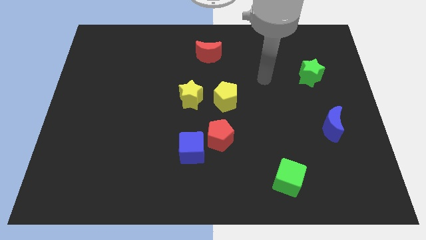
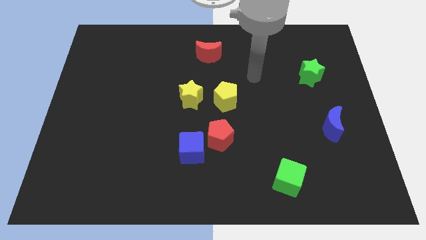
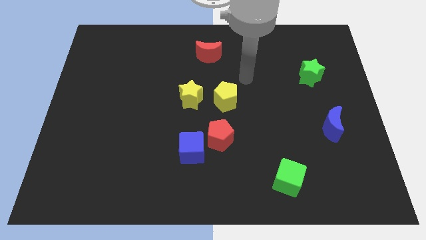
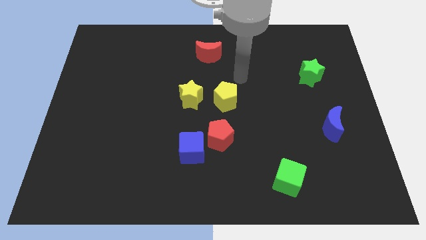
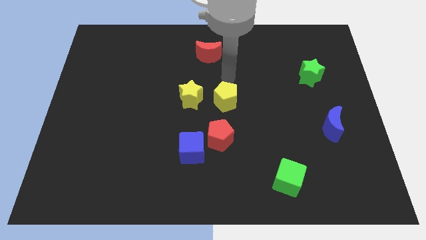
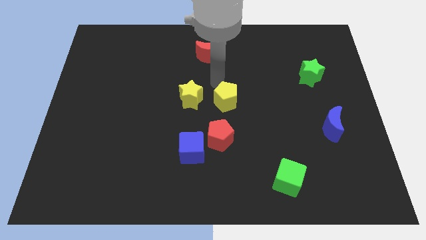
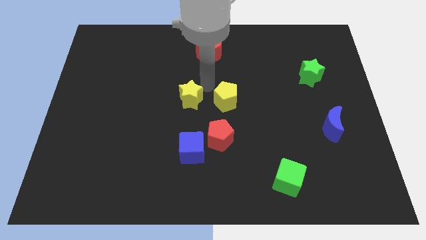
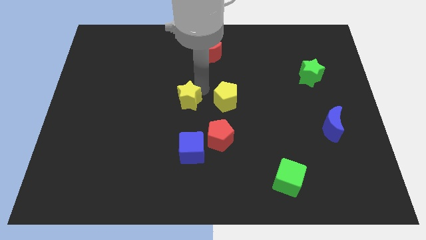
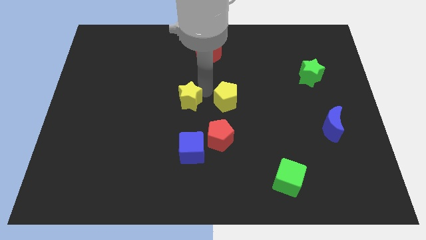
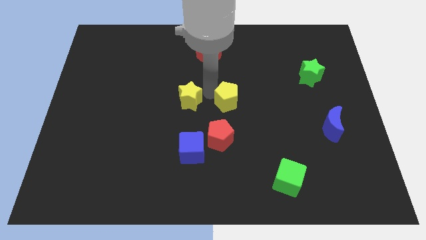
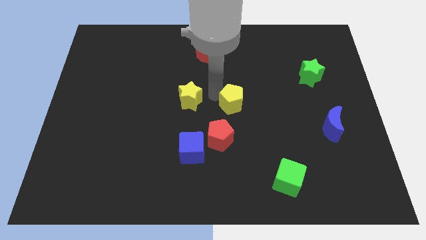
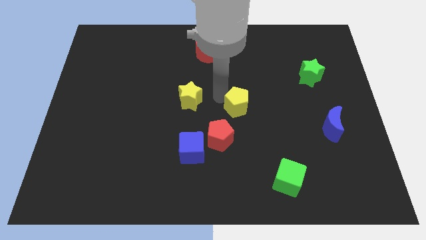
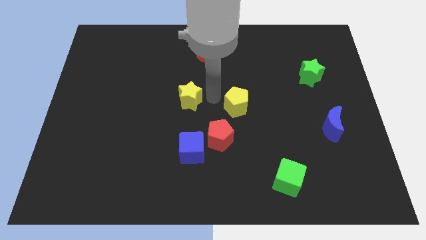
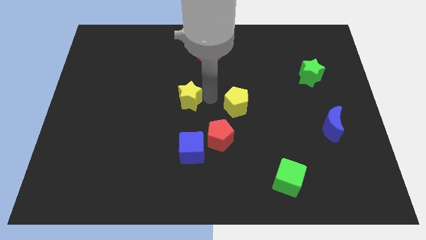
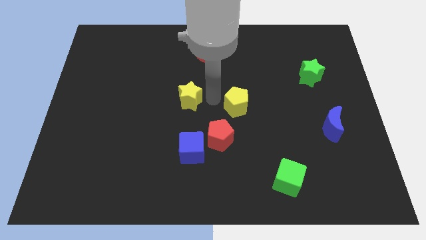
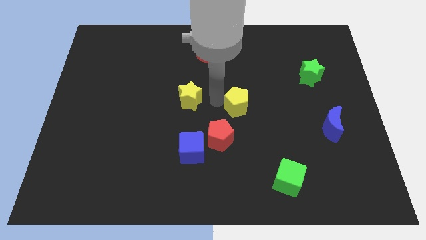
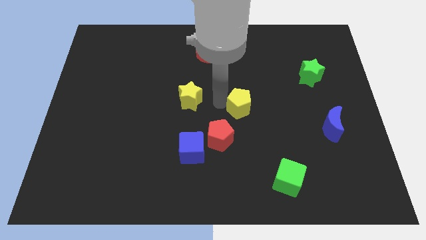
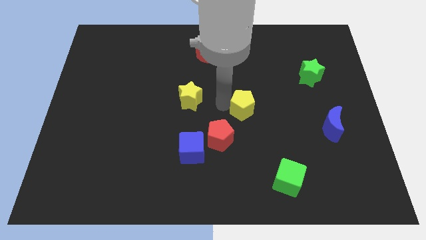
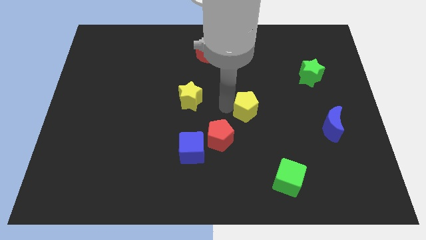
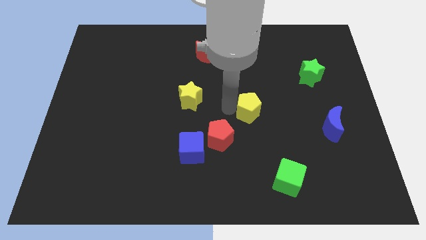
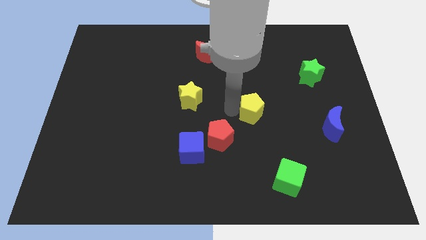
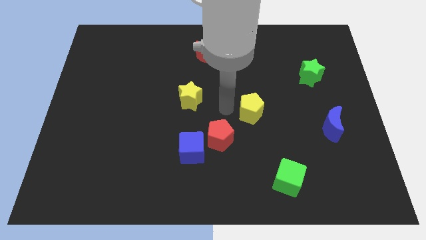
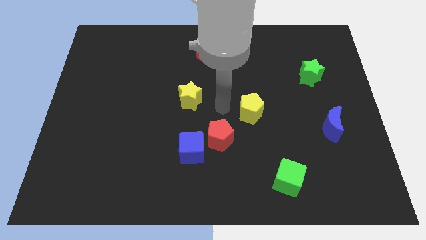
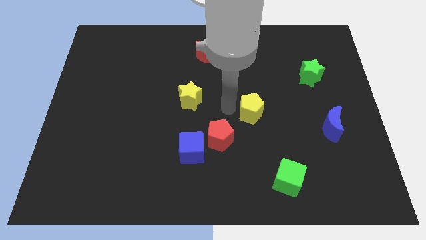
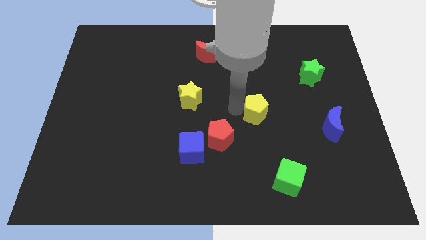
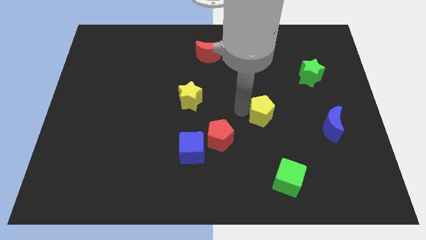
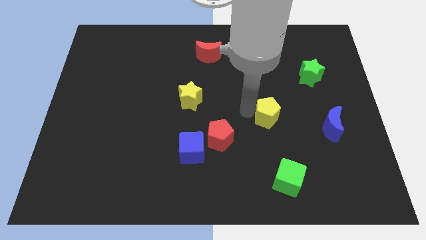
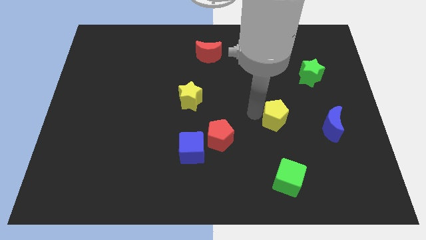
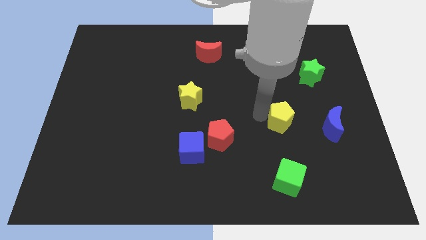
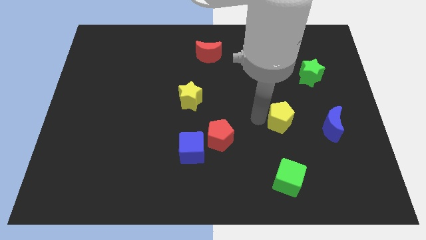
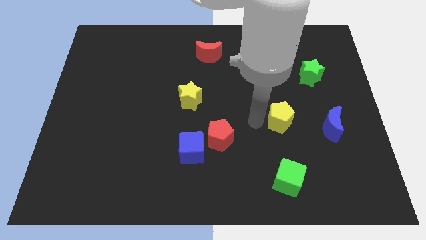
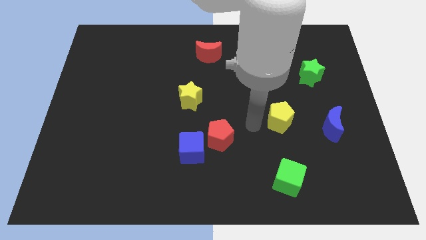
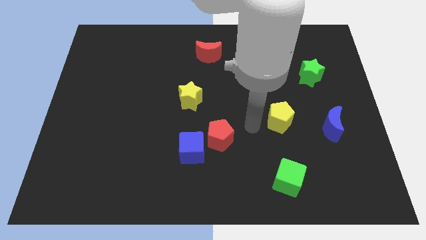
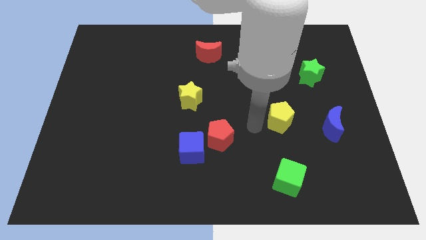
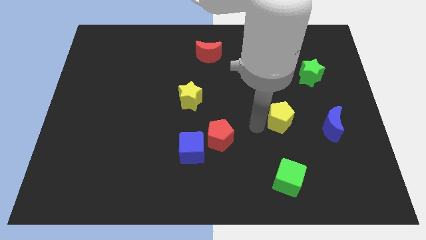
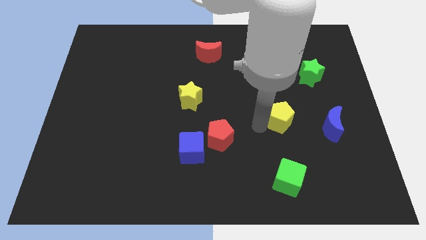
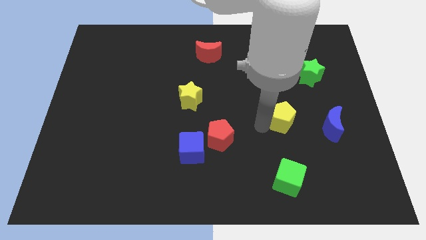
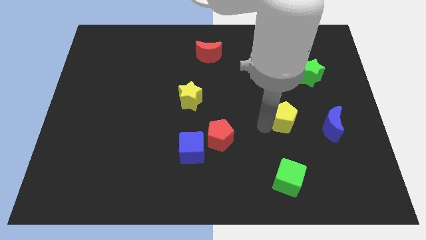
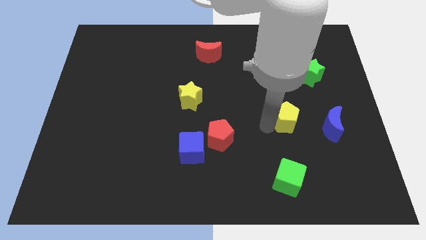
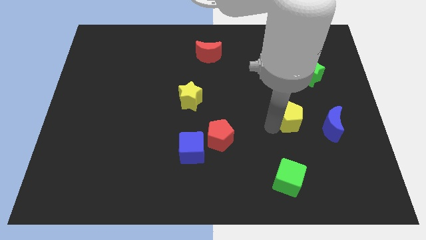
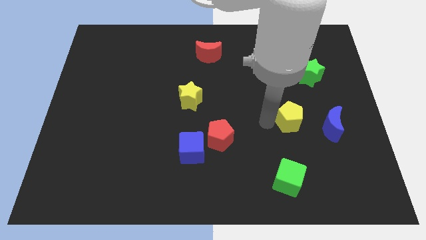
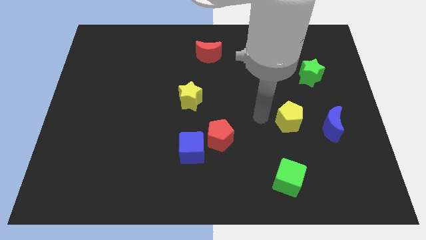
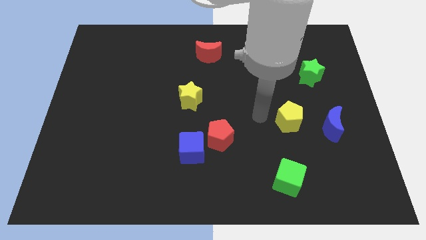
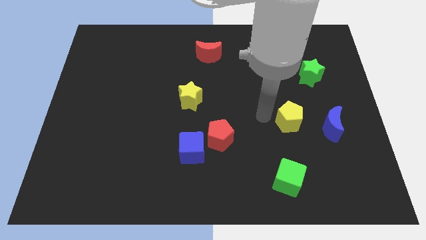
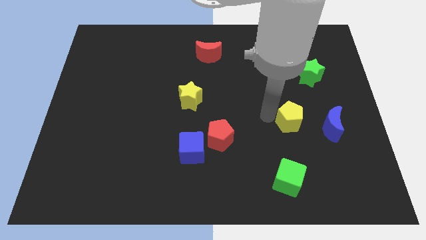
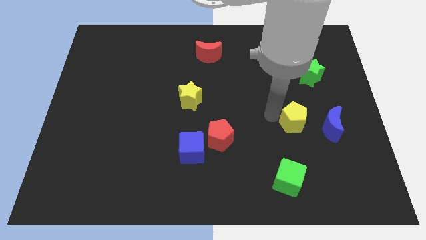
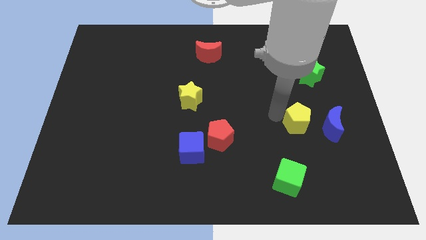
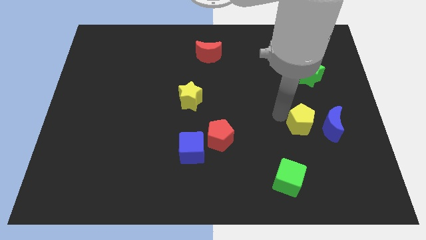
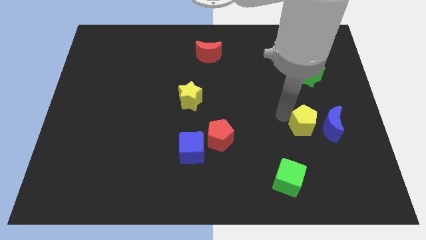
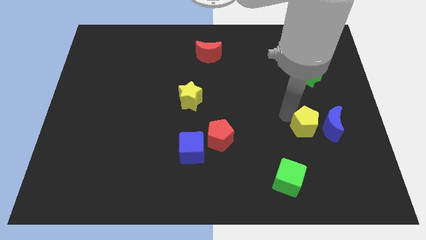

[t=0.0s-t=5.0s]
slide the yellow pentagon close to the blue moon

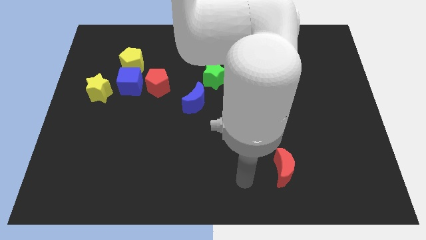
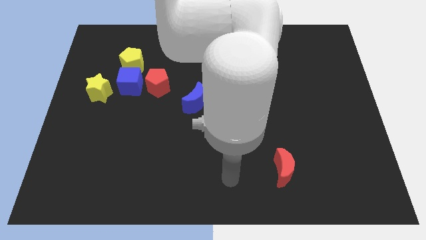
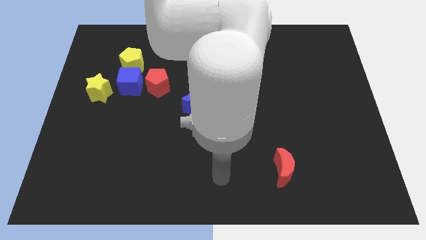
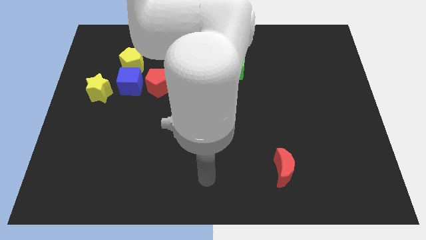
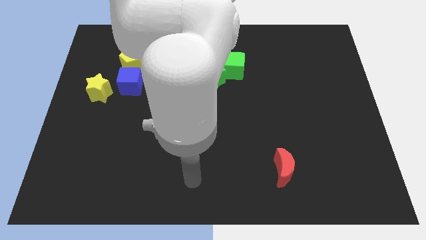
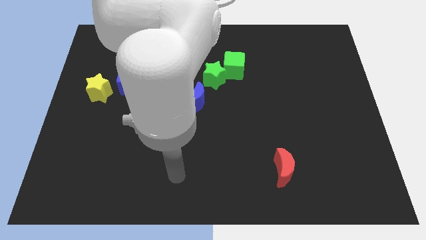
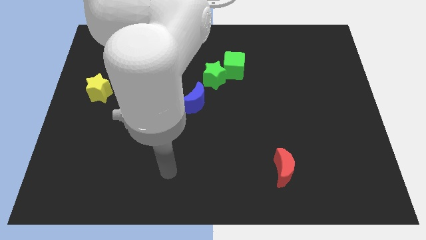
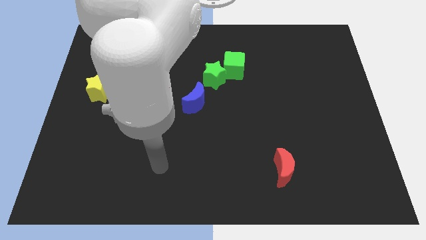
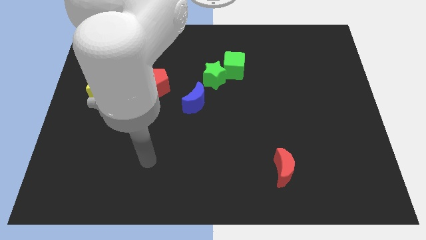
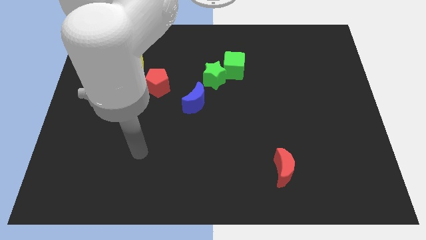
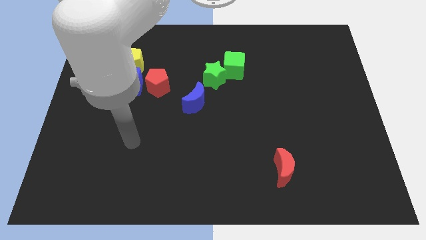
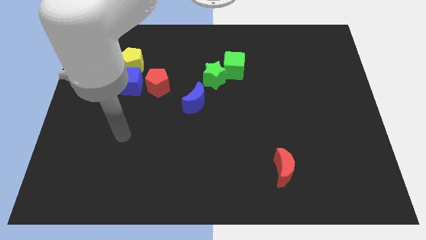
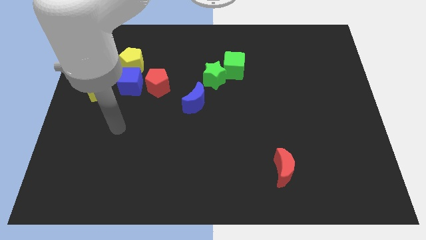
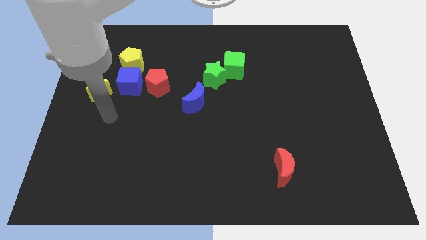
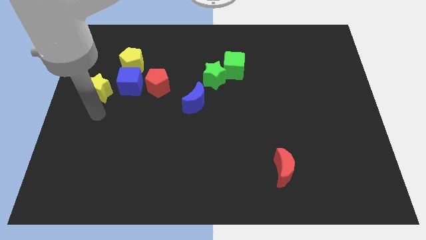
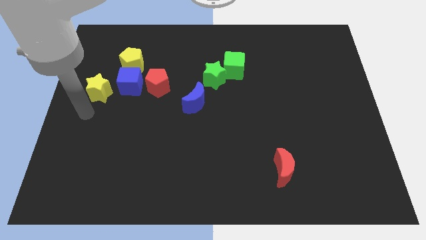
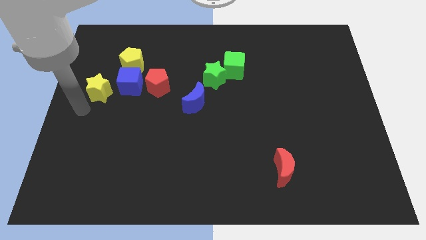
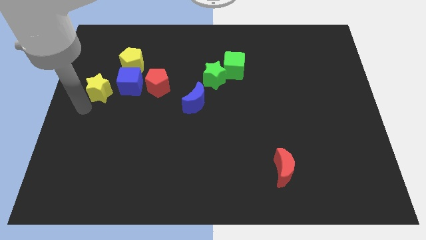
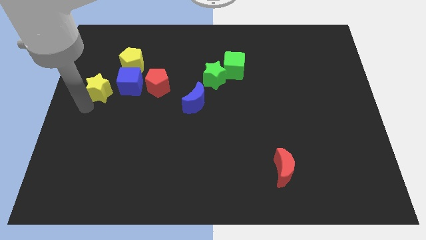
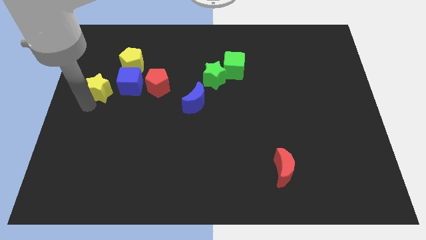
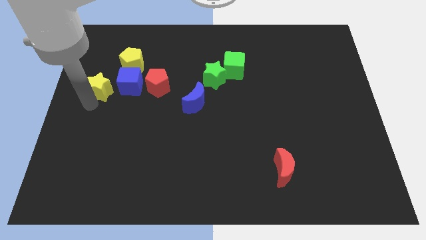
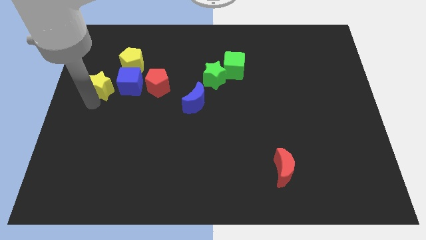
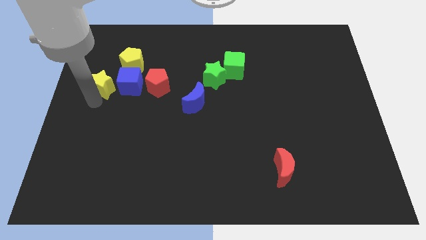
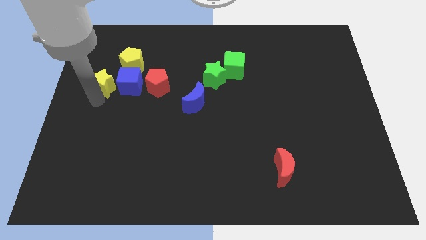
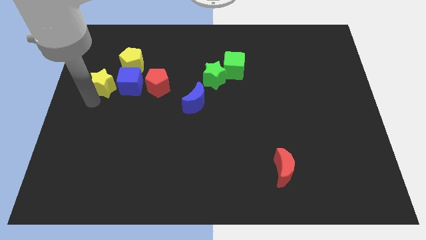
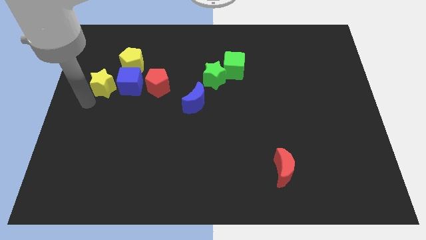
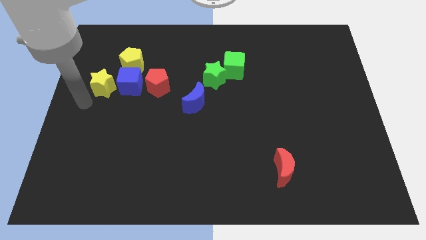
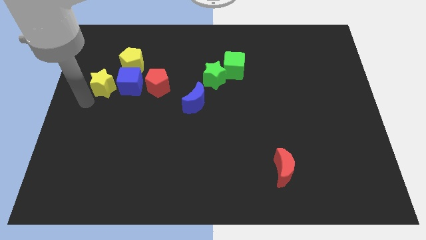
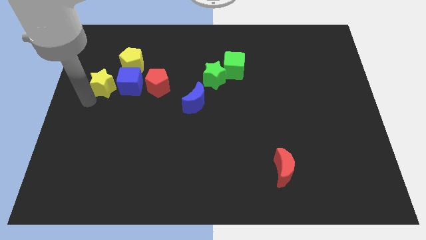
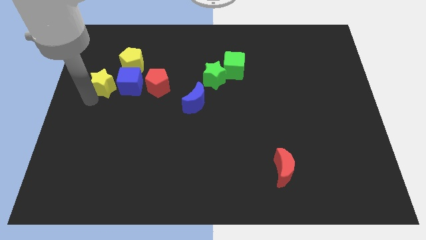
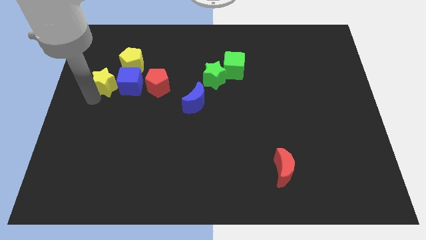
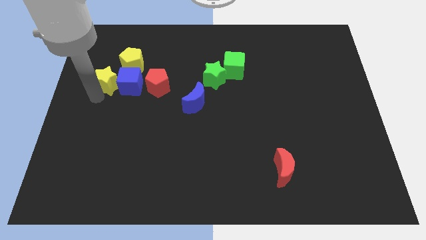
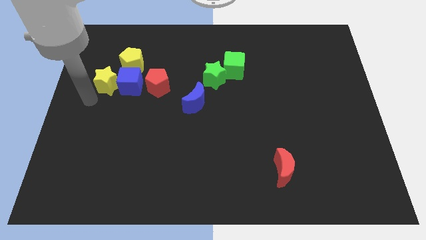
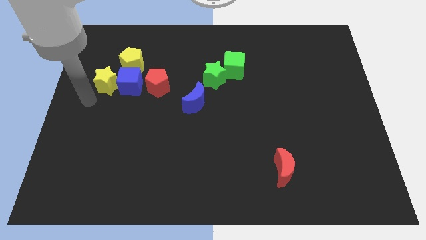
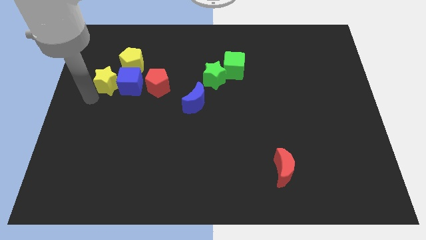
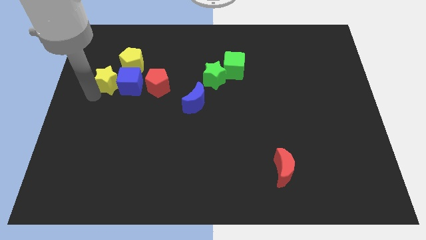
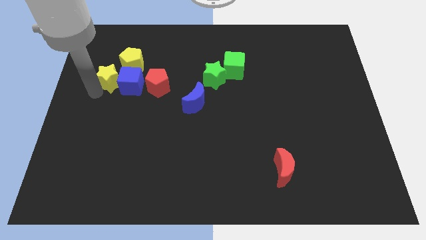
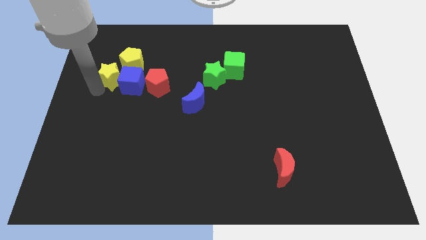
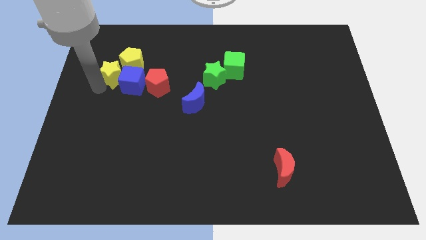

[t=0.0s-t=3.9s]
push the yellow star to the yellow pentagon
